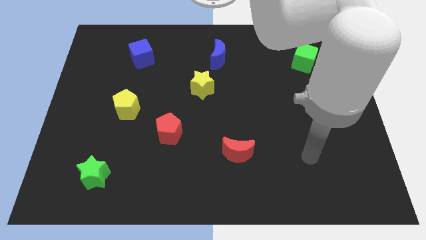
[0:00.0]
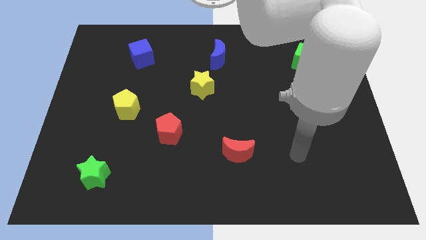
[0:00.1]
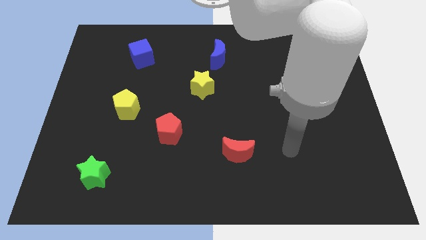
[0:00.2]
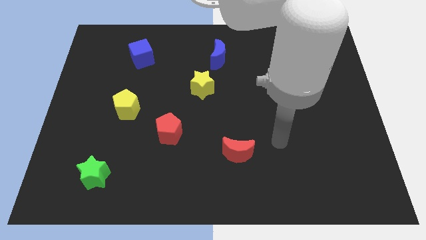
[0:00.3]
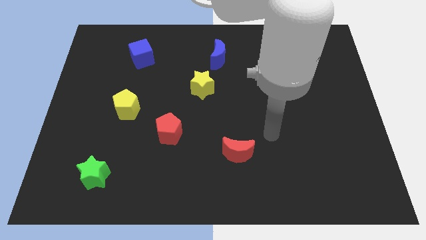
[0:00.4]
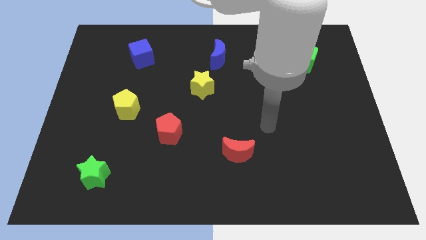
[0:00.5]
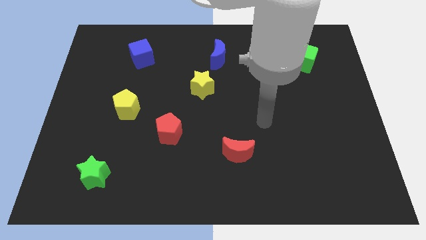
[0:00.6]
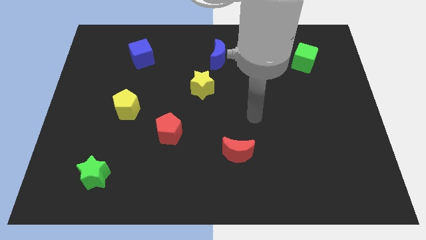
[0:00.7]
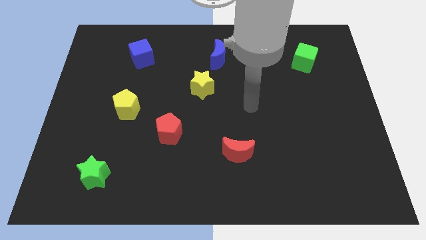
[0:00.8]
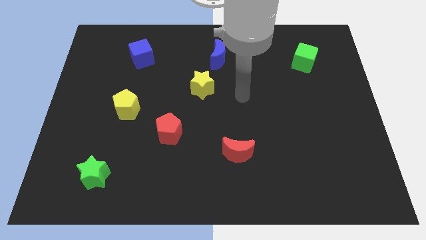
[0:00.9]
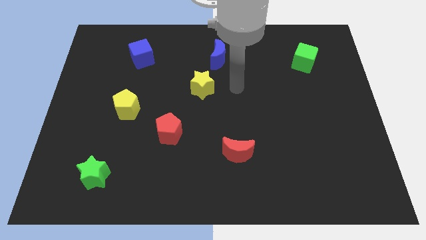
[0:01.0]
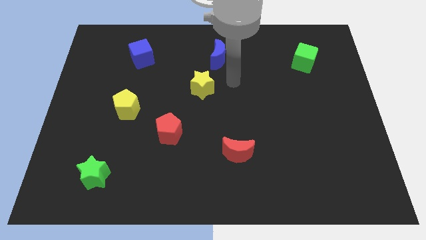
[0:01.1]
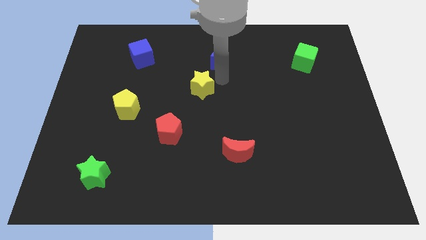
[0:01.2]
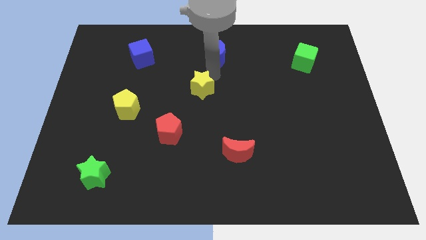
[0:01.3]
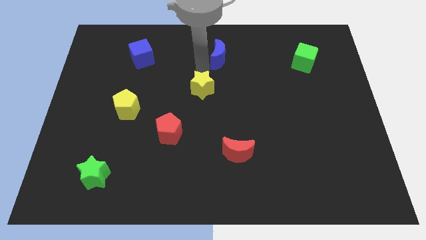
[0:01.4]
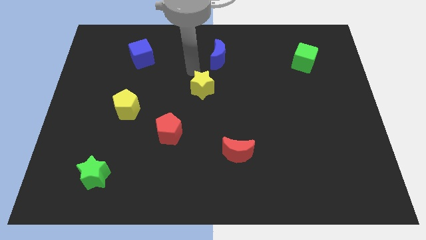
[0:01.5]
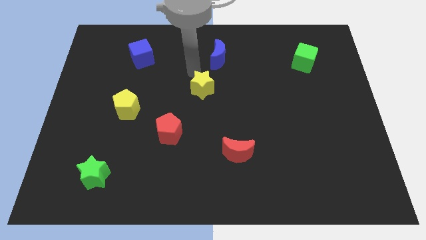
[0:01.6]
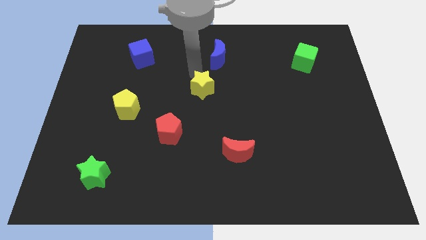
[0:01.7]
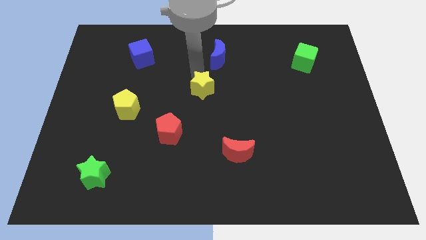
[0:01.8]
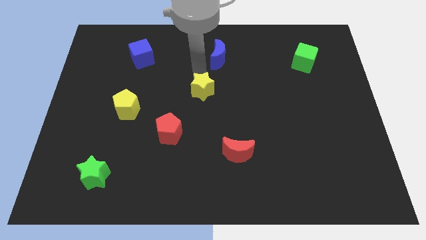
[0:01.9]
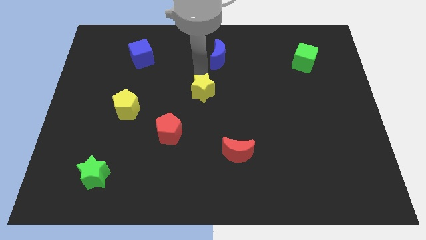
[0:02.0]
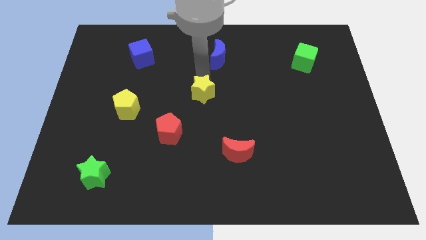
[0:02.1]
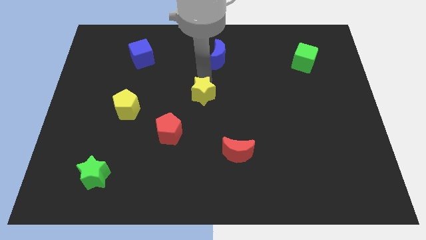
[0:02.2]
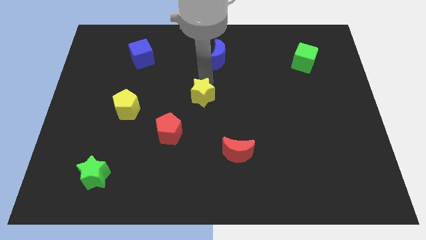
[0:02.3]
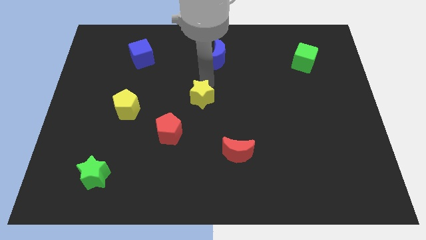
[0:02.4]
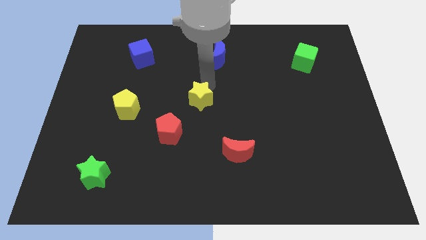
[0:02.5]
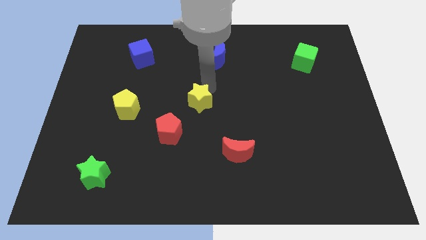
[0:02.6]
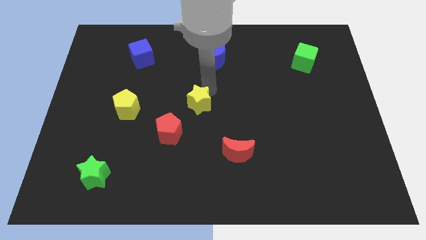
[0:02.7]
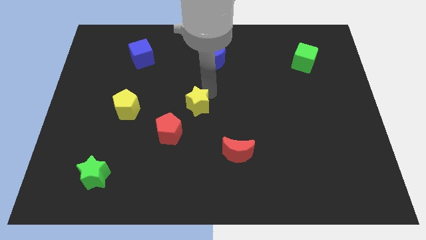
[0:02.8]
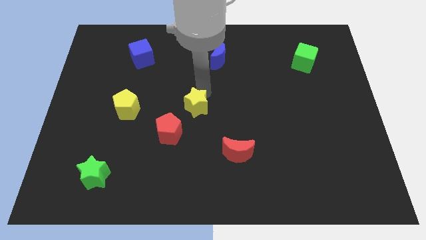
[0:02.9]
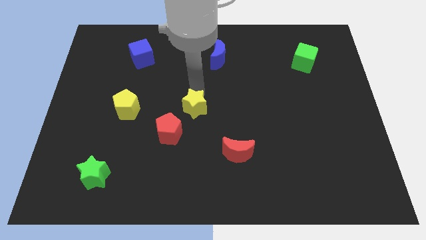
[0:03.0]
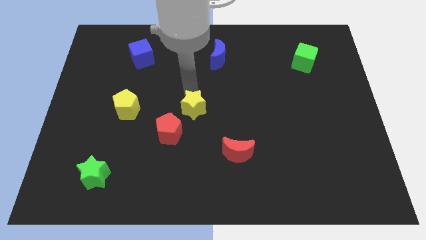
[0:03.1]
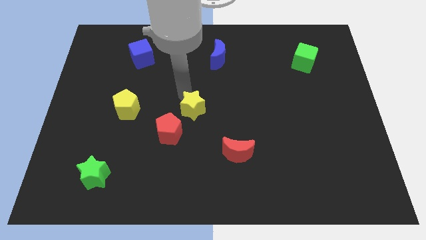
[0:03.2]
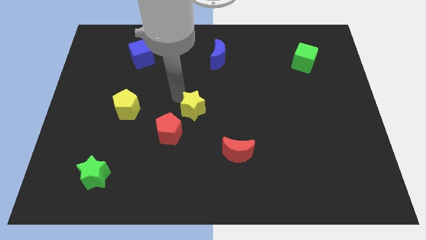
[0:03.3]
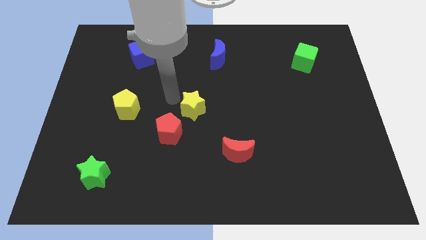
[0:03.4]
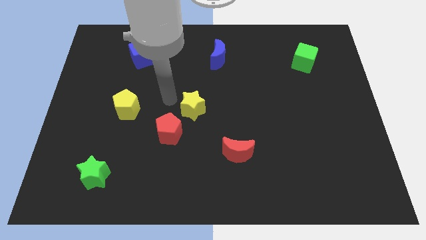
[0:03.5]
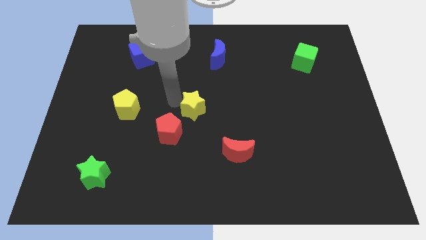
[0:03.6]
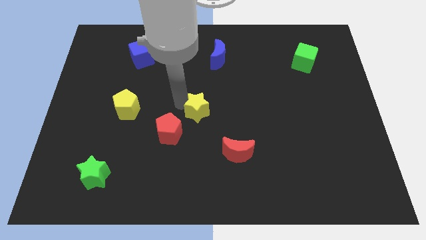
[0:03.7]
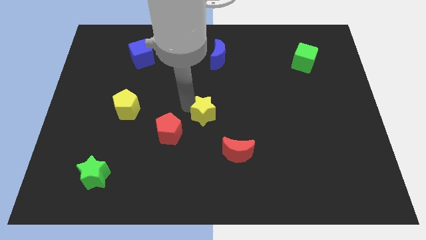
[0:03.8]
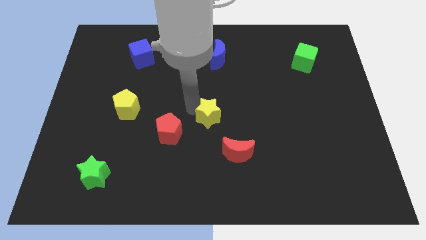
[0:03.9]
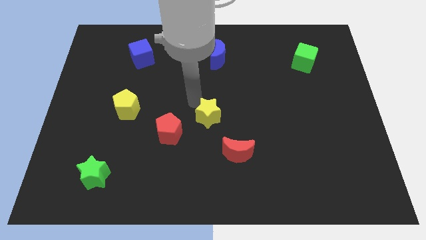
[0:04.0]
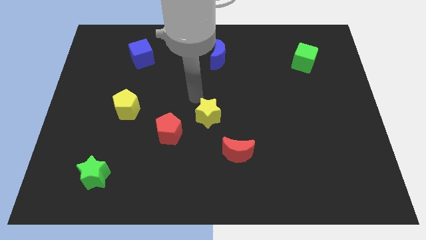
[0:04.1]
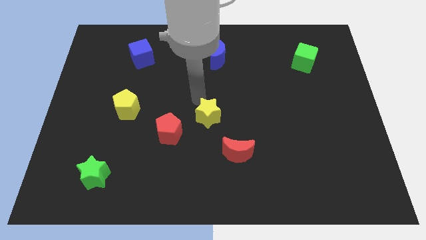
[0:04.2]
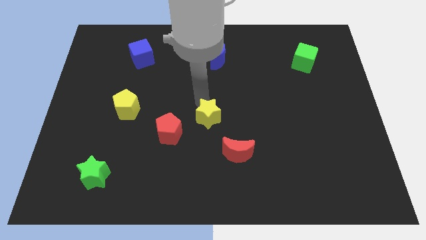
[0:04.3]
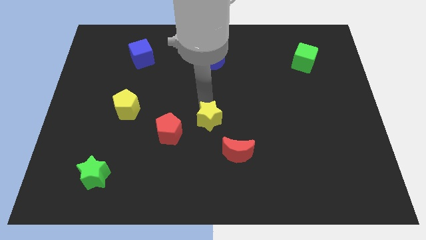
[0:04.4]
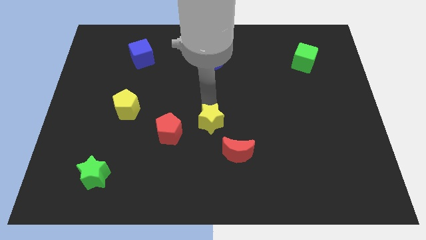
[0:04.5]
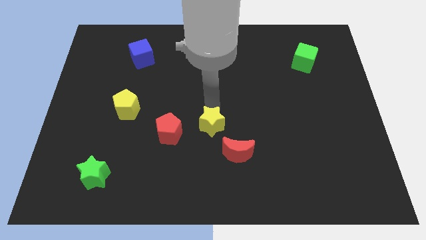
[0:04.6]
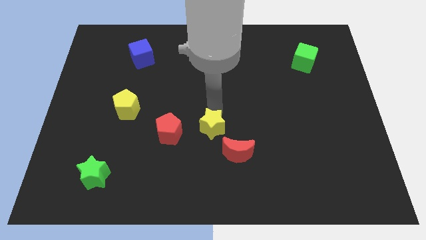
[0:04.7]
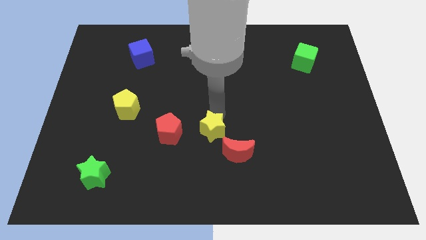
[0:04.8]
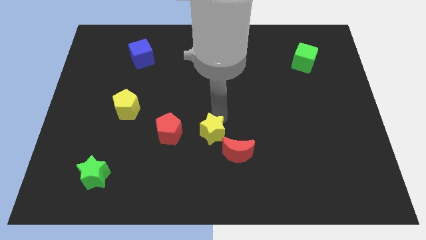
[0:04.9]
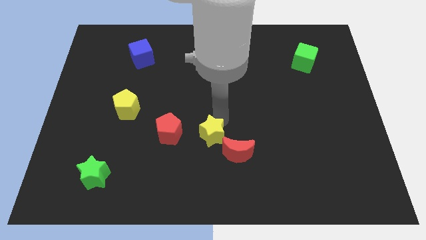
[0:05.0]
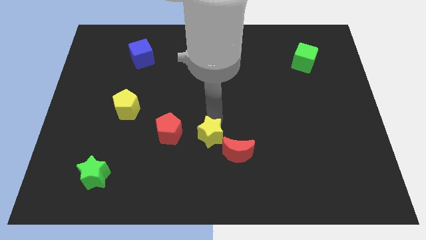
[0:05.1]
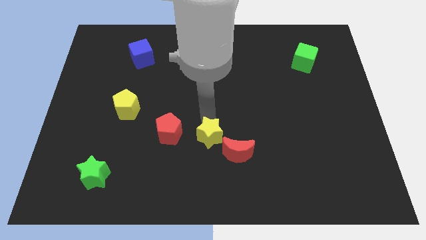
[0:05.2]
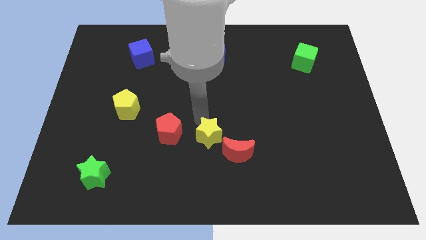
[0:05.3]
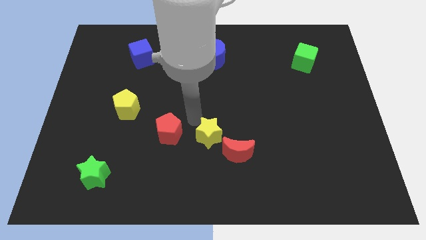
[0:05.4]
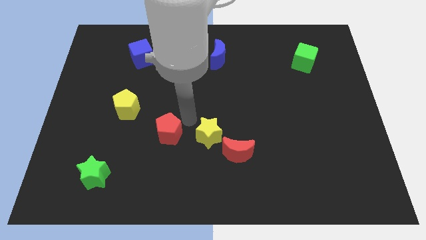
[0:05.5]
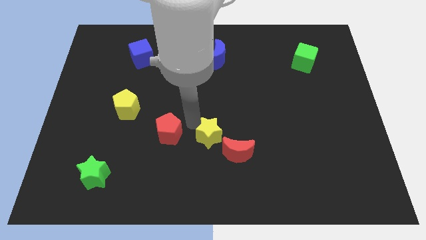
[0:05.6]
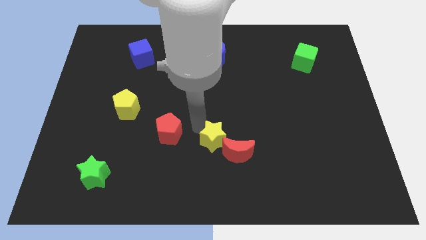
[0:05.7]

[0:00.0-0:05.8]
slide the yellow star towards the red moon

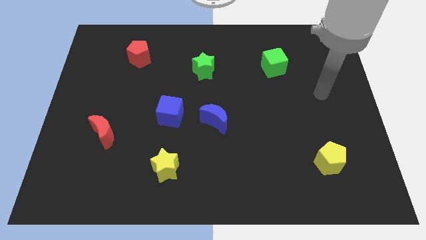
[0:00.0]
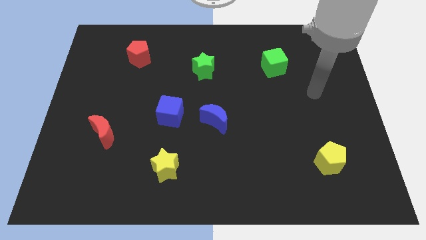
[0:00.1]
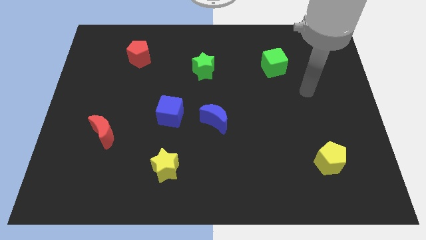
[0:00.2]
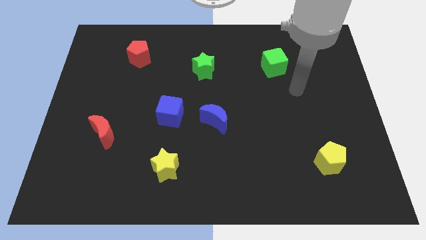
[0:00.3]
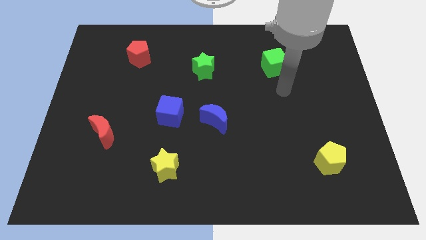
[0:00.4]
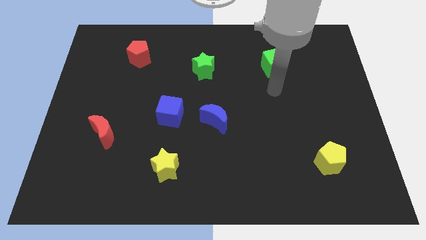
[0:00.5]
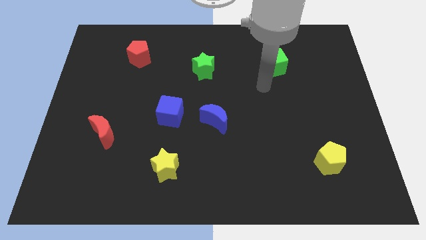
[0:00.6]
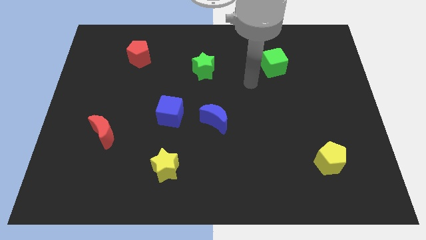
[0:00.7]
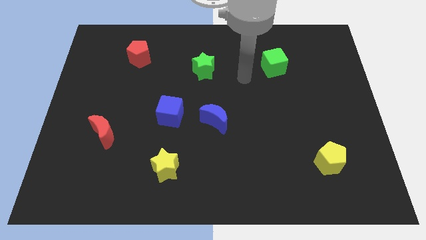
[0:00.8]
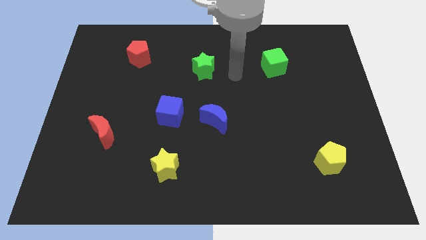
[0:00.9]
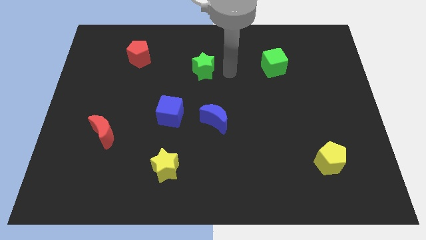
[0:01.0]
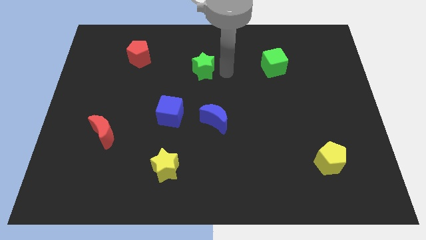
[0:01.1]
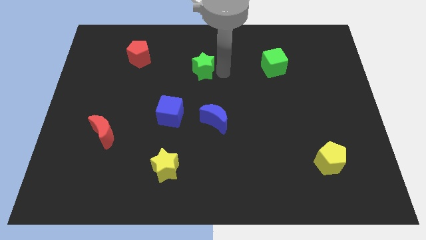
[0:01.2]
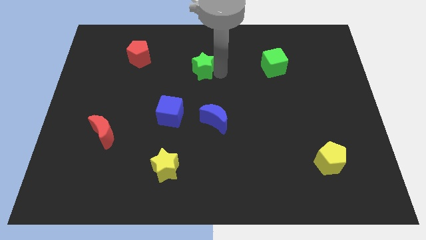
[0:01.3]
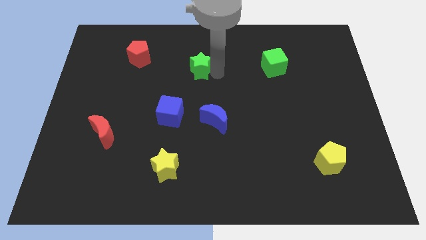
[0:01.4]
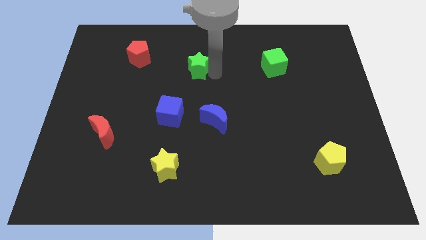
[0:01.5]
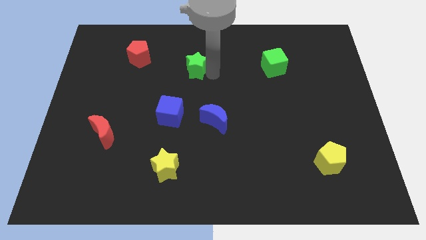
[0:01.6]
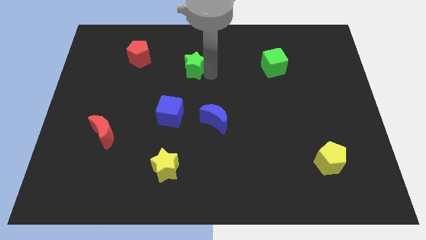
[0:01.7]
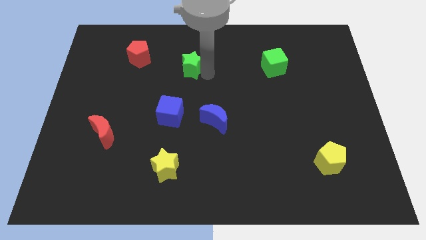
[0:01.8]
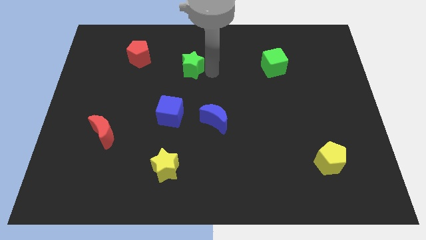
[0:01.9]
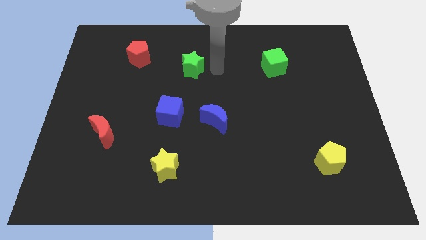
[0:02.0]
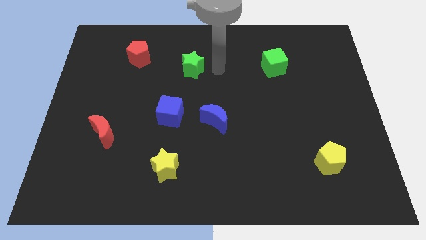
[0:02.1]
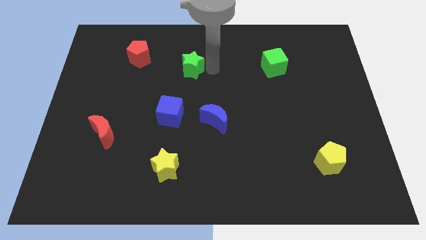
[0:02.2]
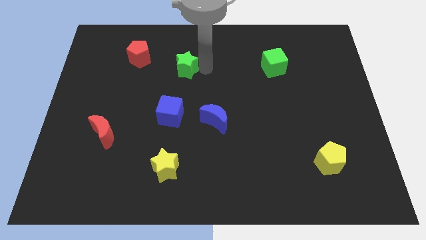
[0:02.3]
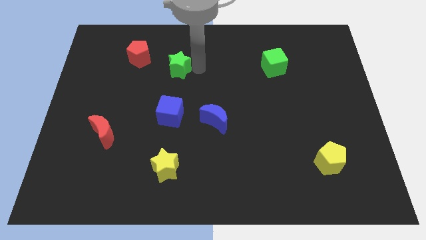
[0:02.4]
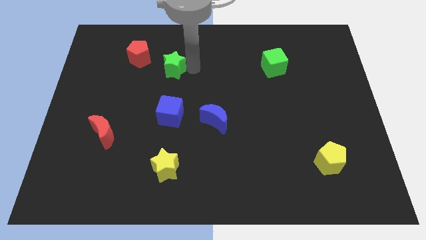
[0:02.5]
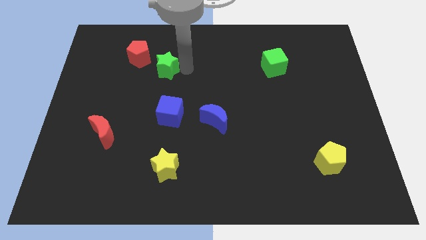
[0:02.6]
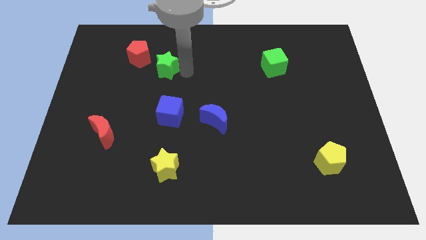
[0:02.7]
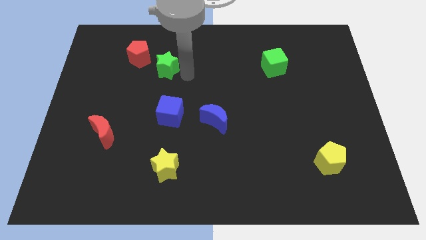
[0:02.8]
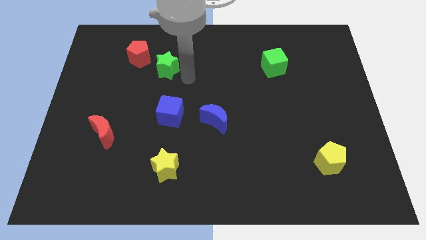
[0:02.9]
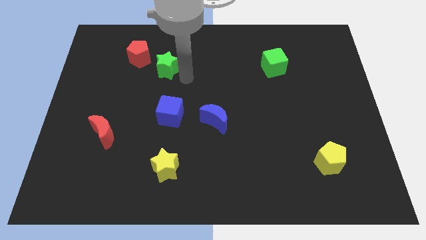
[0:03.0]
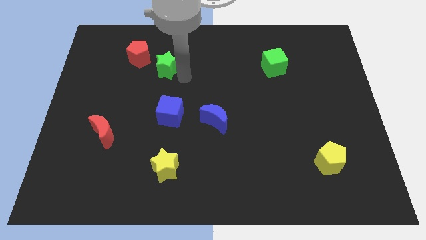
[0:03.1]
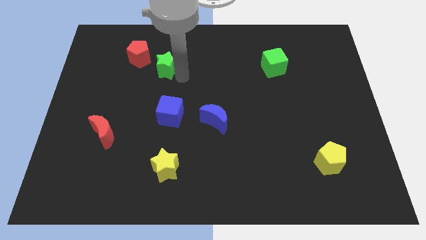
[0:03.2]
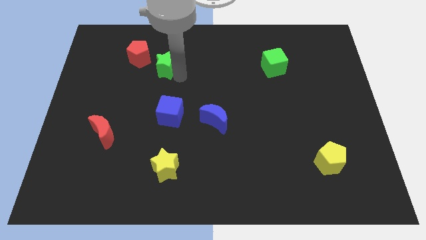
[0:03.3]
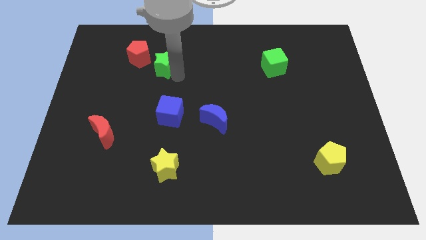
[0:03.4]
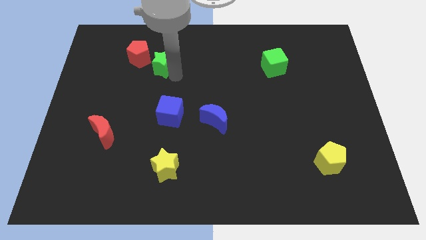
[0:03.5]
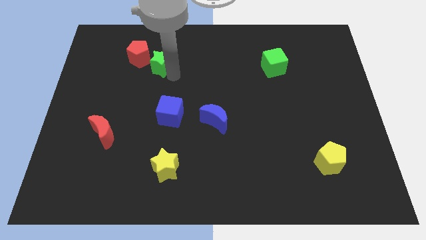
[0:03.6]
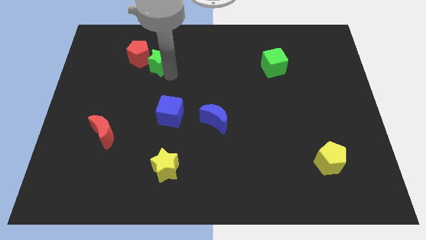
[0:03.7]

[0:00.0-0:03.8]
push the green star towards the red pentagon
